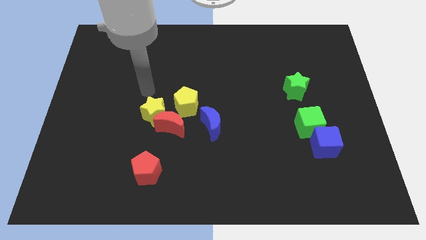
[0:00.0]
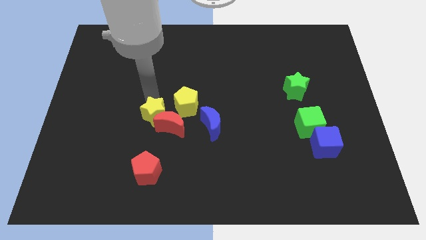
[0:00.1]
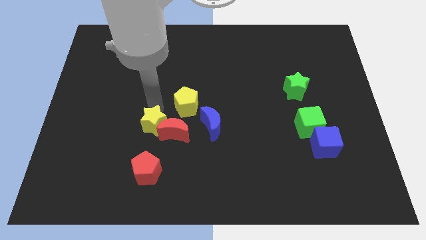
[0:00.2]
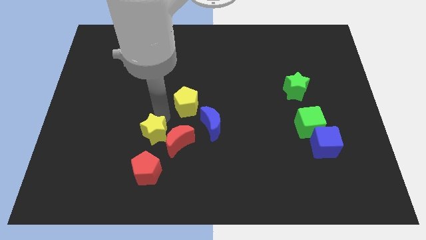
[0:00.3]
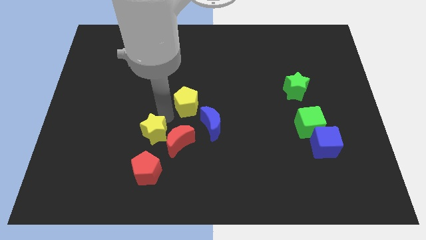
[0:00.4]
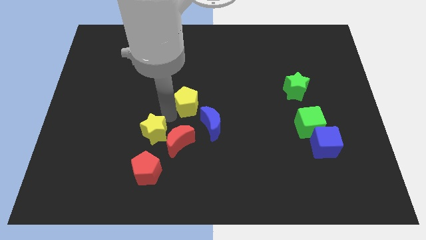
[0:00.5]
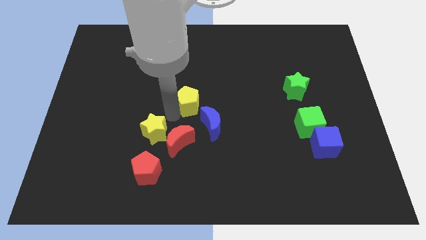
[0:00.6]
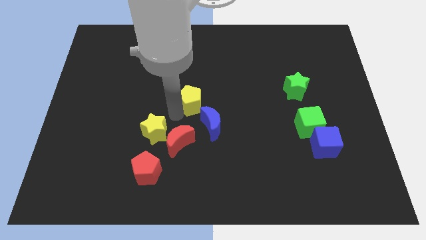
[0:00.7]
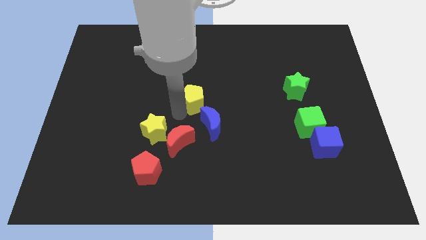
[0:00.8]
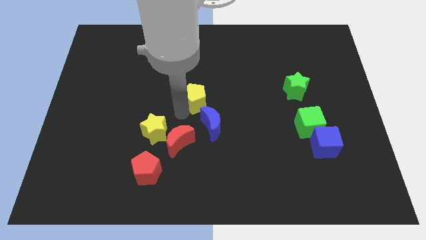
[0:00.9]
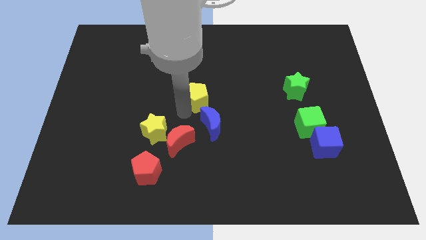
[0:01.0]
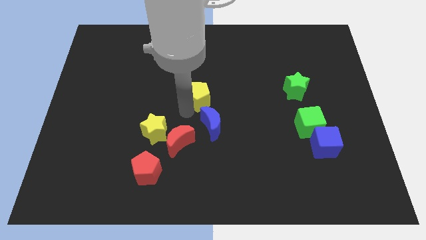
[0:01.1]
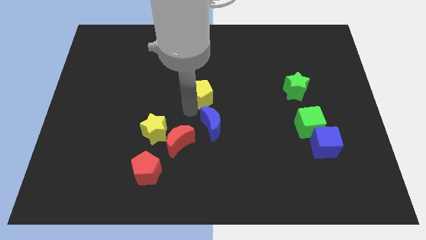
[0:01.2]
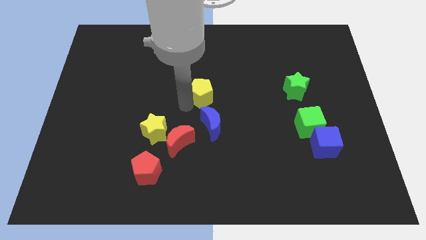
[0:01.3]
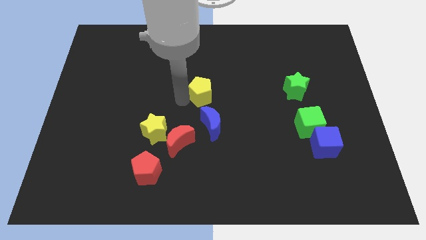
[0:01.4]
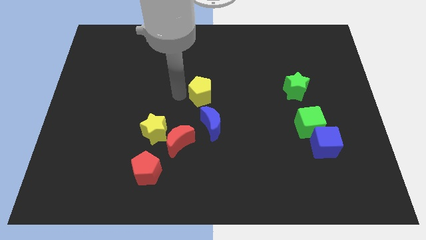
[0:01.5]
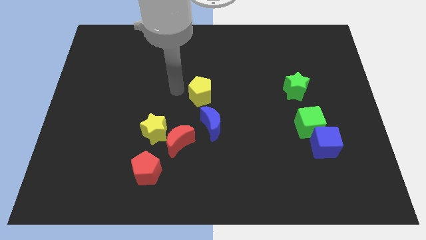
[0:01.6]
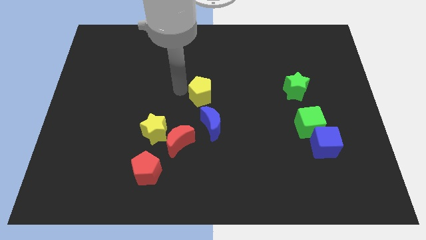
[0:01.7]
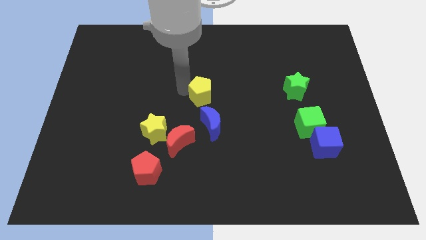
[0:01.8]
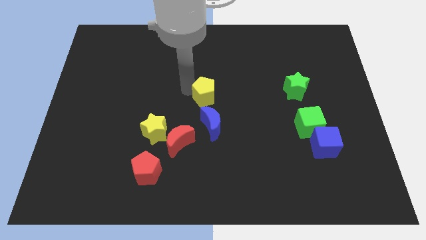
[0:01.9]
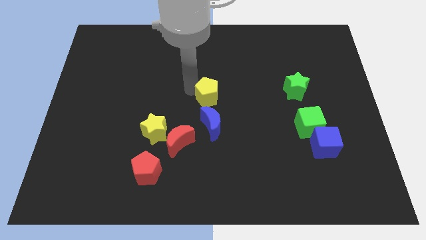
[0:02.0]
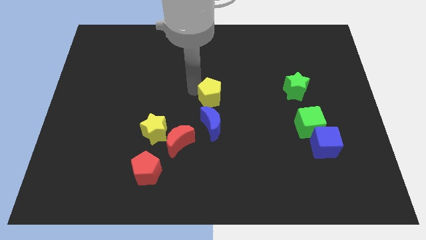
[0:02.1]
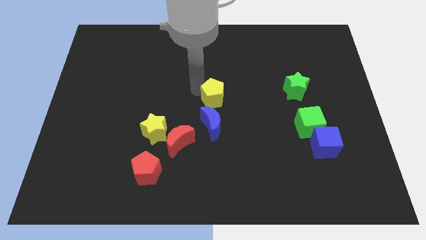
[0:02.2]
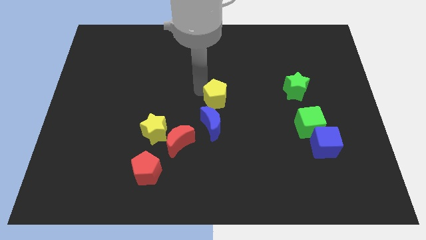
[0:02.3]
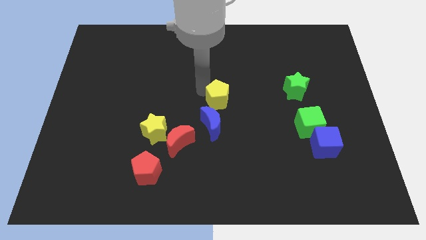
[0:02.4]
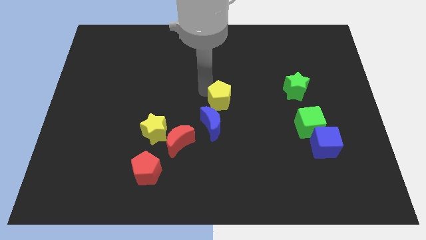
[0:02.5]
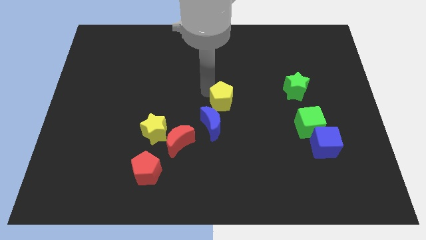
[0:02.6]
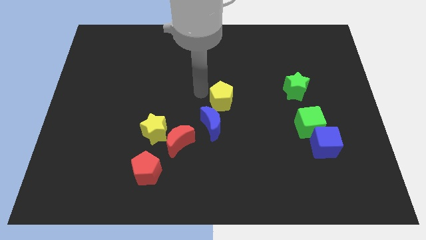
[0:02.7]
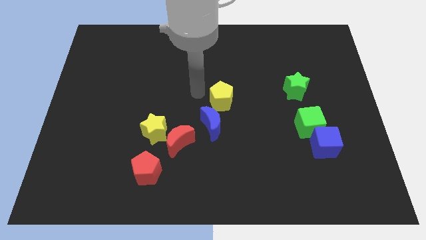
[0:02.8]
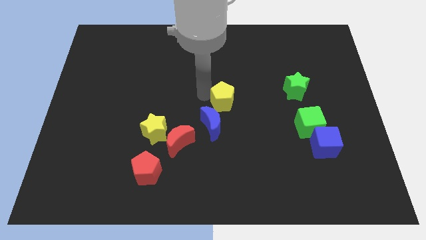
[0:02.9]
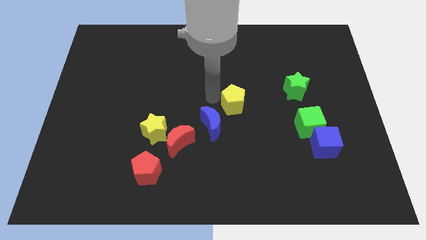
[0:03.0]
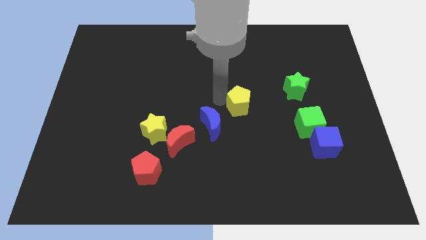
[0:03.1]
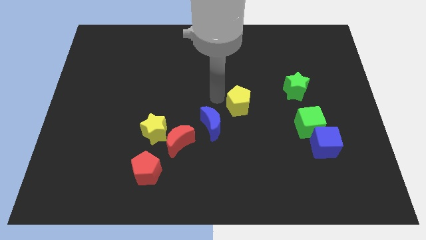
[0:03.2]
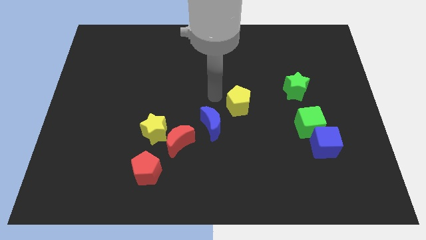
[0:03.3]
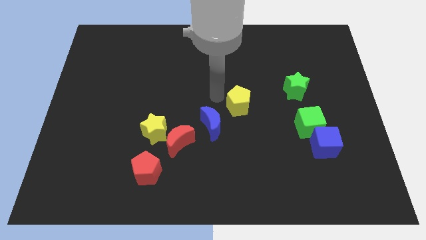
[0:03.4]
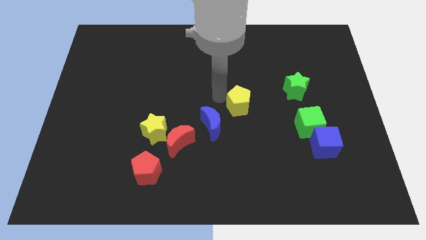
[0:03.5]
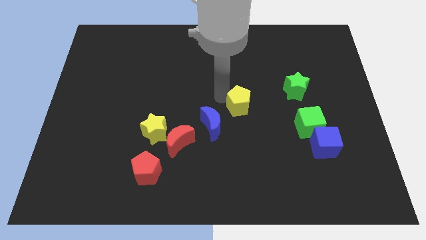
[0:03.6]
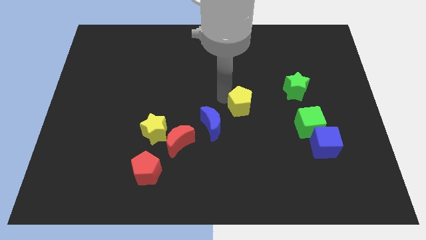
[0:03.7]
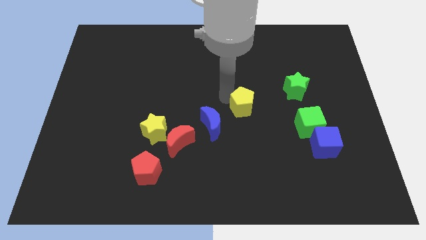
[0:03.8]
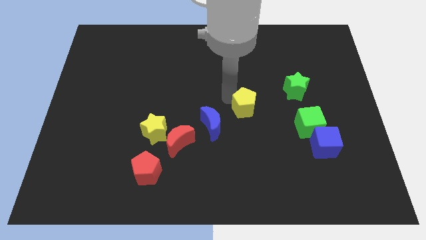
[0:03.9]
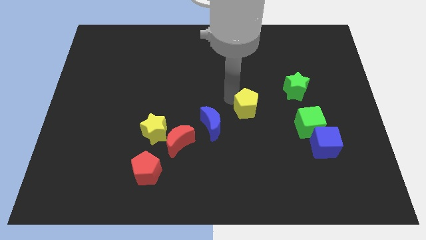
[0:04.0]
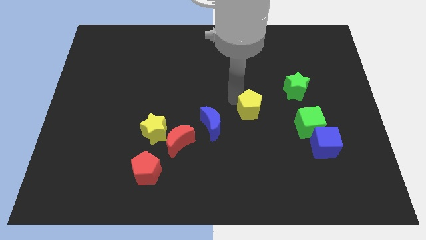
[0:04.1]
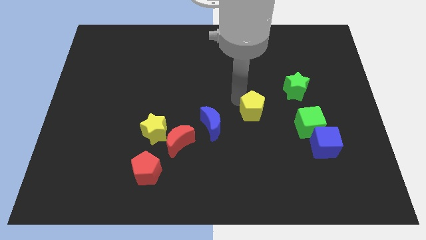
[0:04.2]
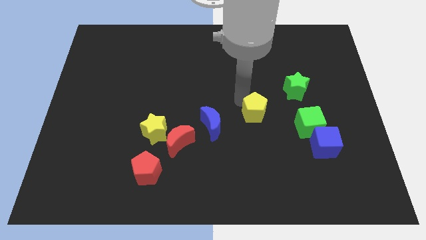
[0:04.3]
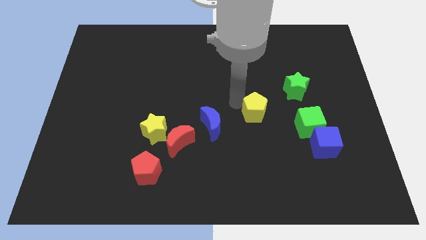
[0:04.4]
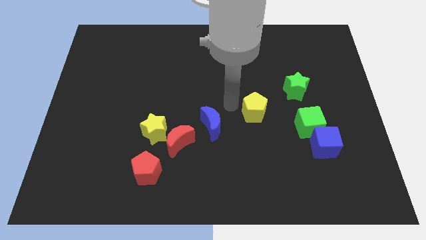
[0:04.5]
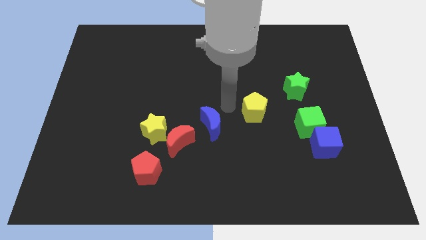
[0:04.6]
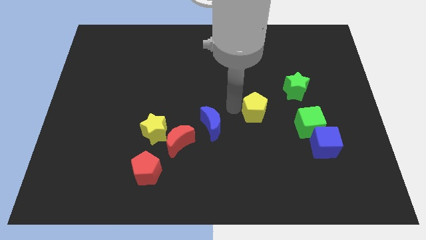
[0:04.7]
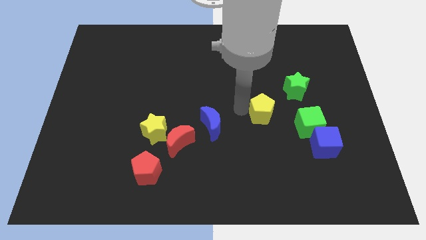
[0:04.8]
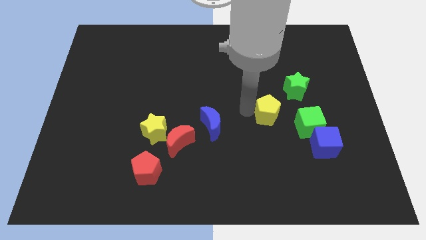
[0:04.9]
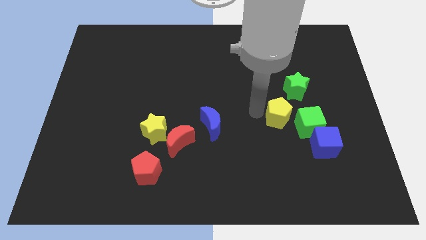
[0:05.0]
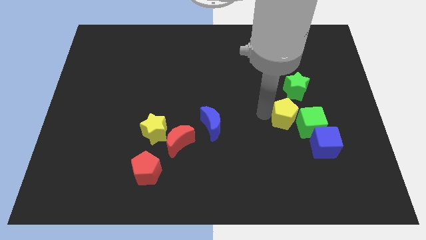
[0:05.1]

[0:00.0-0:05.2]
move the yellow pentagon close to the green cube

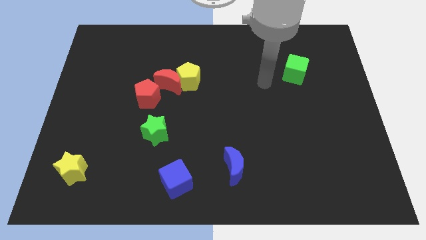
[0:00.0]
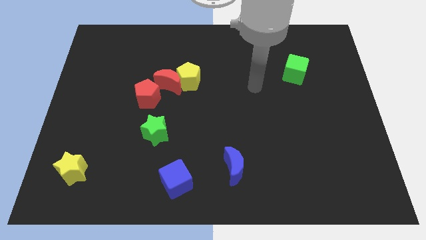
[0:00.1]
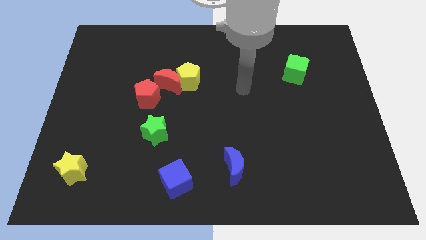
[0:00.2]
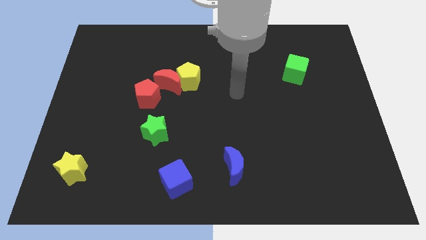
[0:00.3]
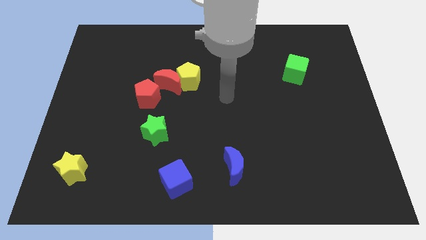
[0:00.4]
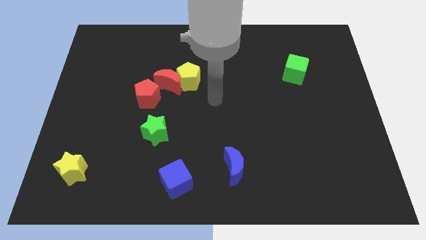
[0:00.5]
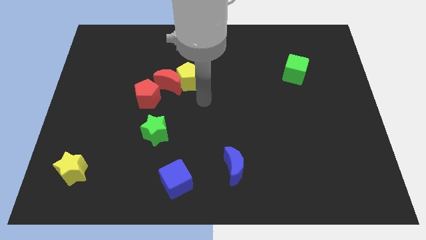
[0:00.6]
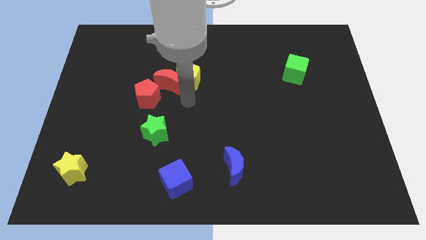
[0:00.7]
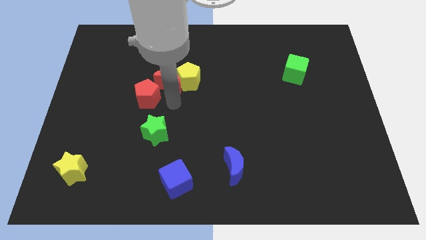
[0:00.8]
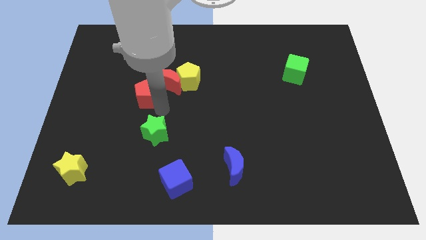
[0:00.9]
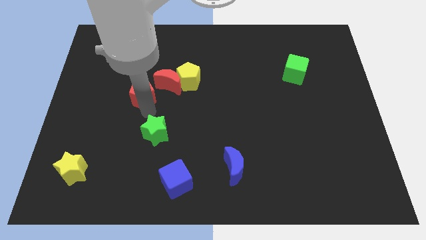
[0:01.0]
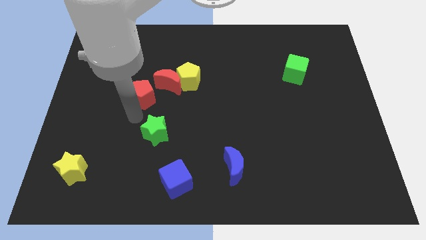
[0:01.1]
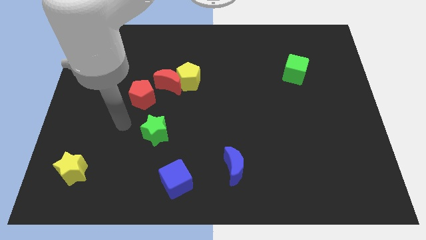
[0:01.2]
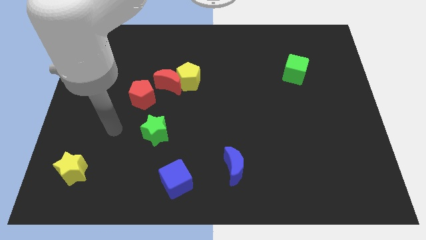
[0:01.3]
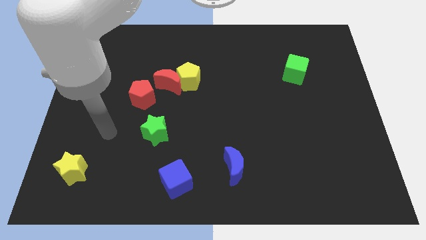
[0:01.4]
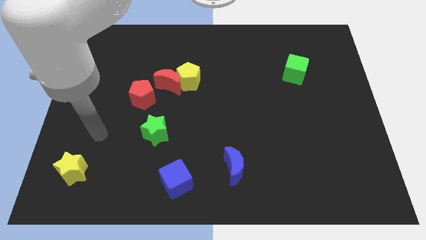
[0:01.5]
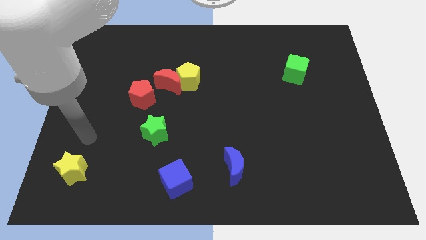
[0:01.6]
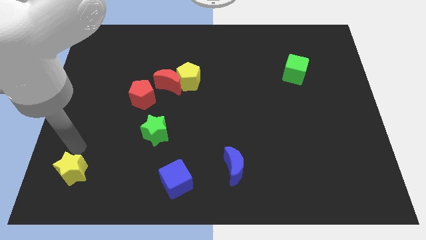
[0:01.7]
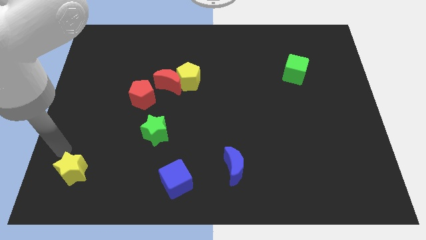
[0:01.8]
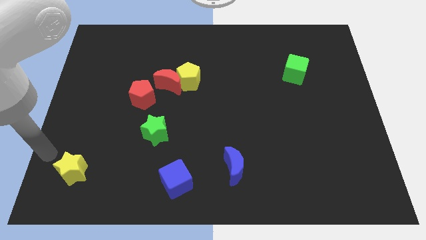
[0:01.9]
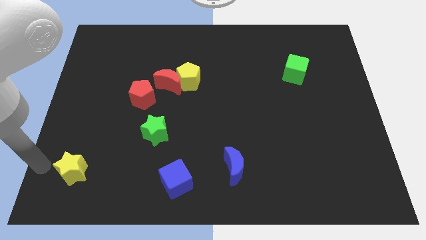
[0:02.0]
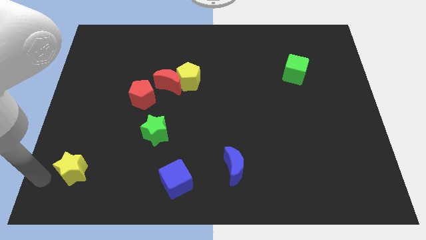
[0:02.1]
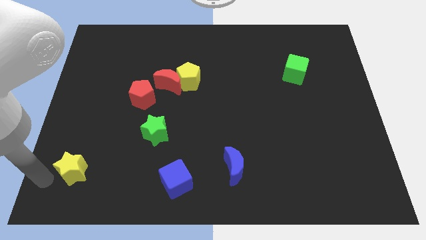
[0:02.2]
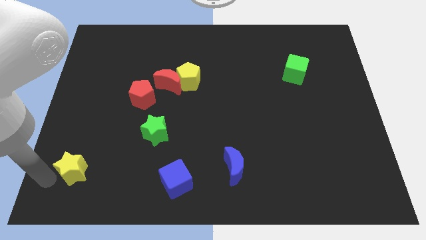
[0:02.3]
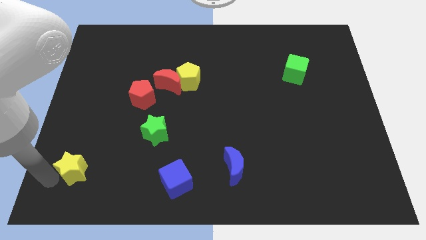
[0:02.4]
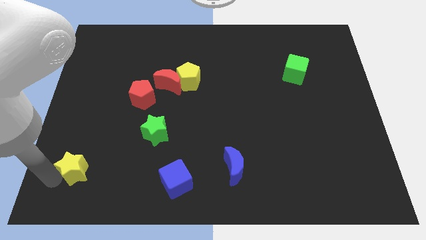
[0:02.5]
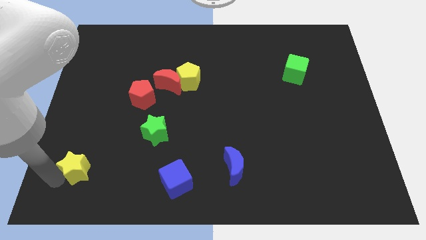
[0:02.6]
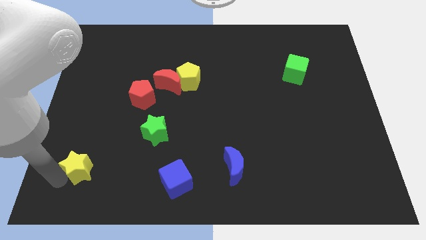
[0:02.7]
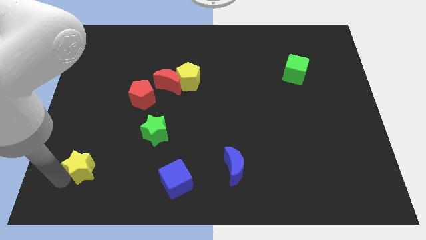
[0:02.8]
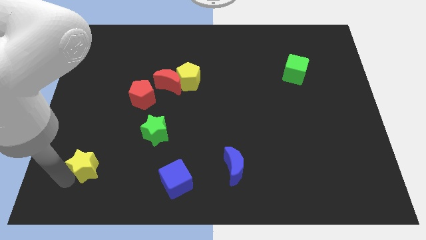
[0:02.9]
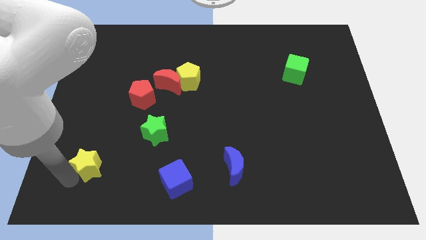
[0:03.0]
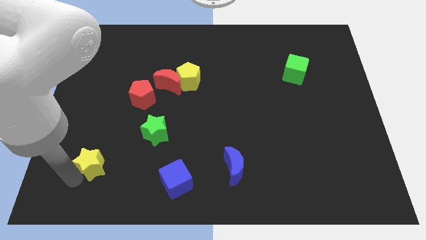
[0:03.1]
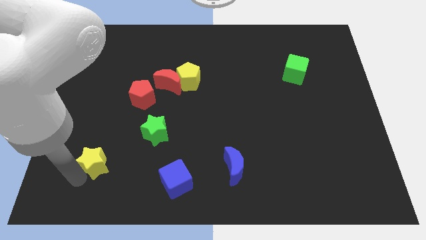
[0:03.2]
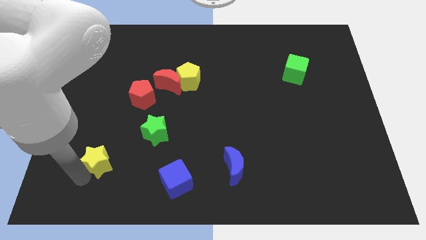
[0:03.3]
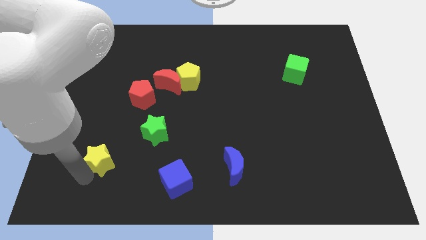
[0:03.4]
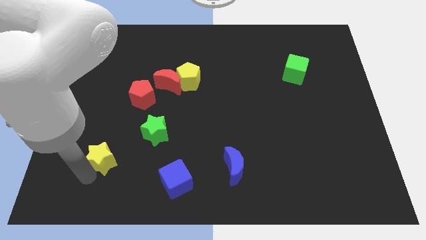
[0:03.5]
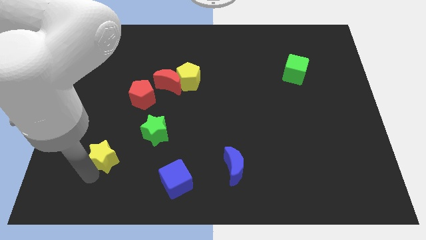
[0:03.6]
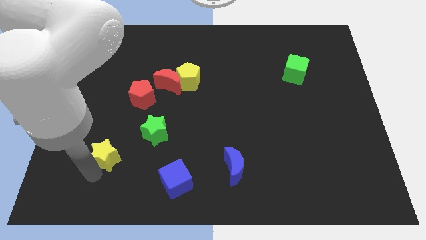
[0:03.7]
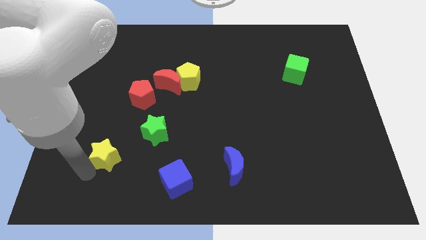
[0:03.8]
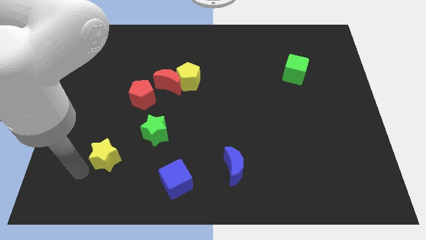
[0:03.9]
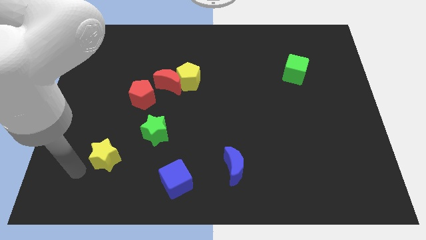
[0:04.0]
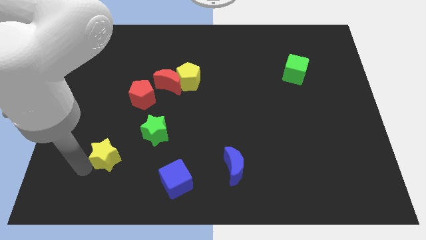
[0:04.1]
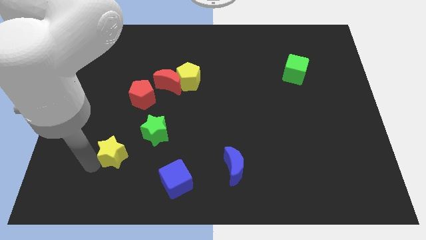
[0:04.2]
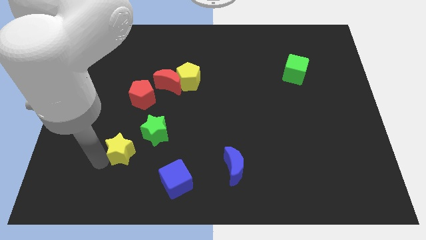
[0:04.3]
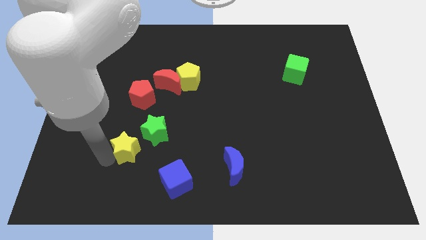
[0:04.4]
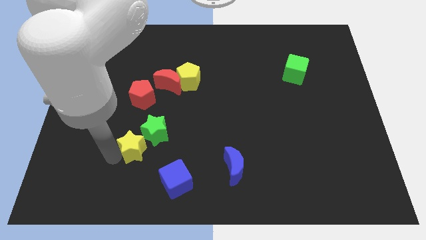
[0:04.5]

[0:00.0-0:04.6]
push the yellow star close to the green star
